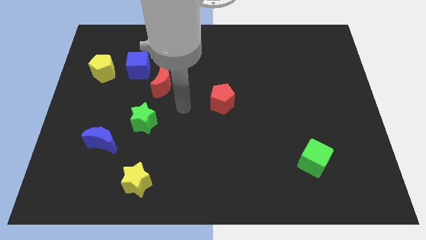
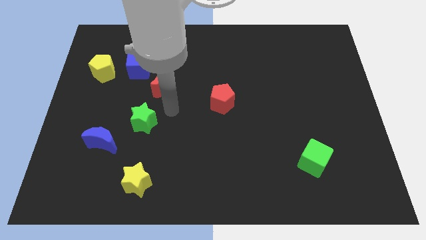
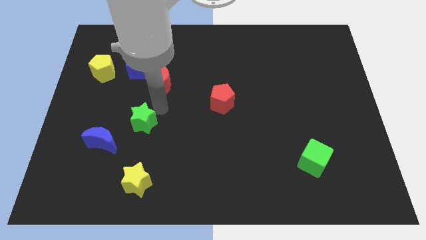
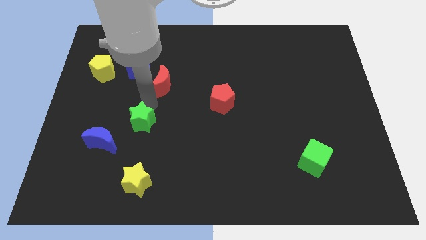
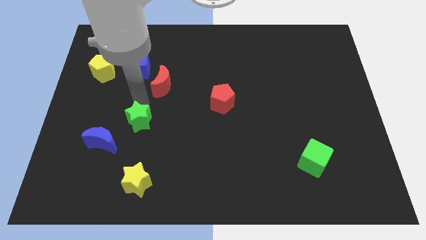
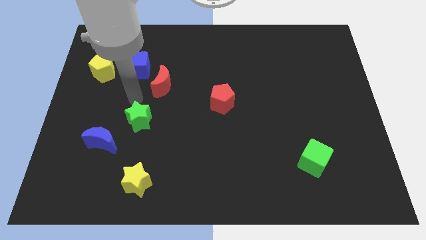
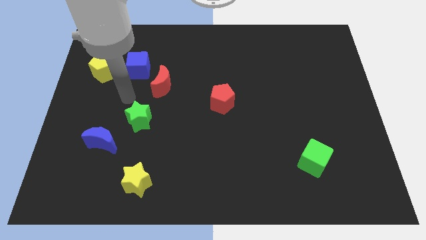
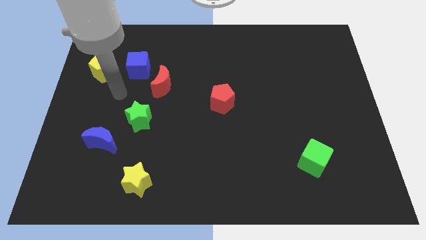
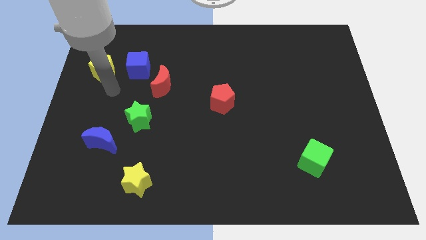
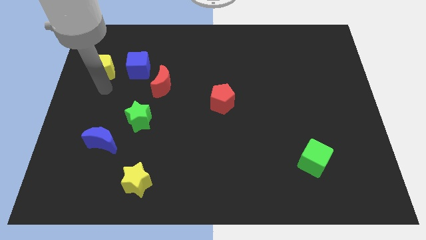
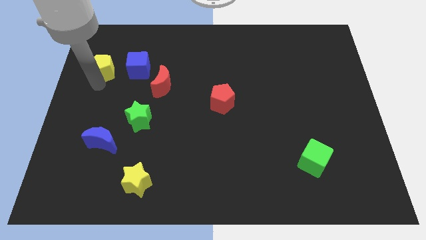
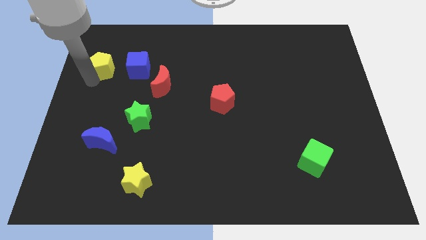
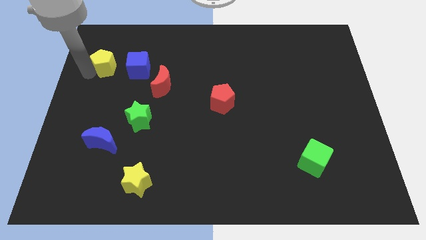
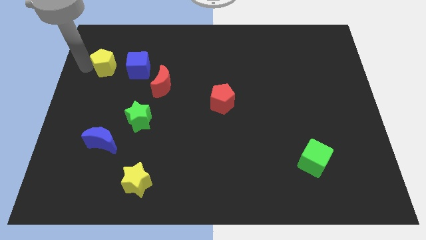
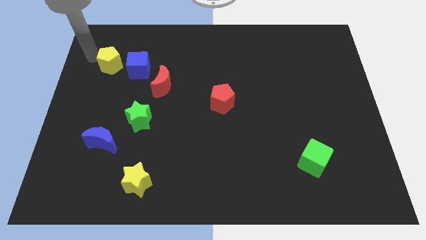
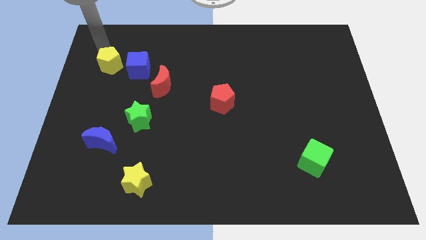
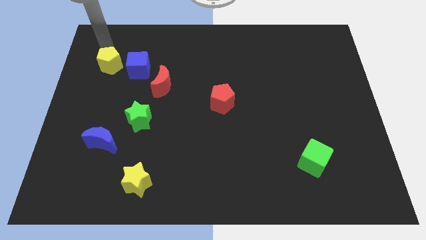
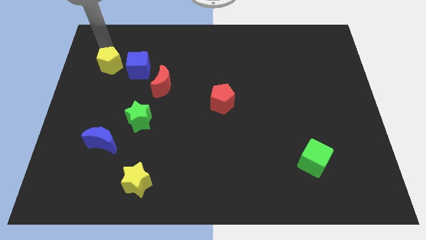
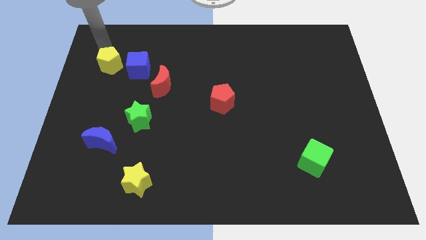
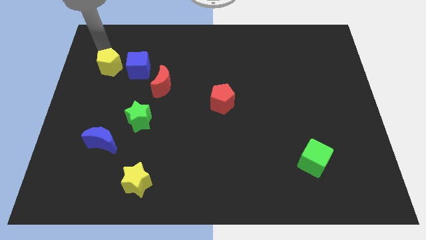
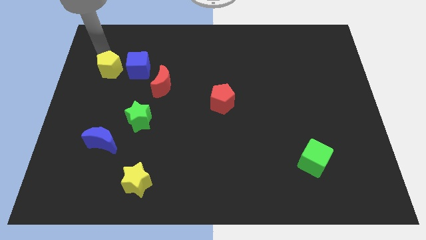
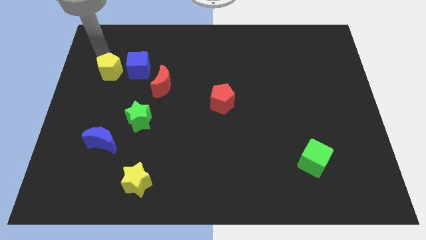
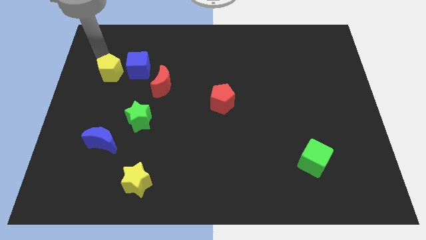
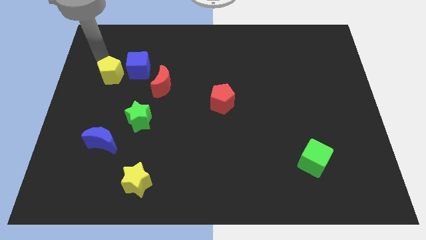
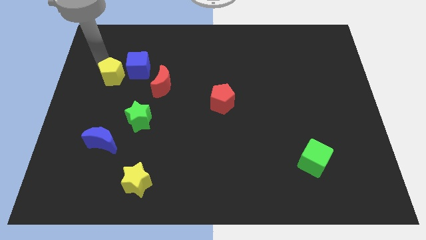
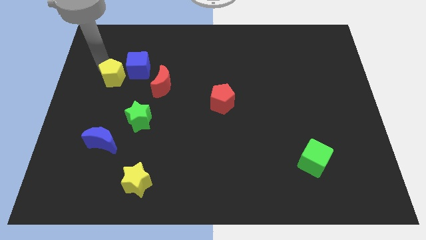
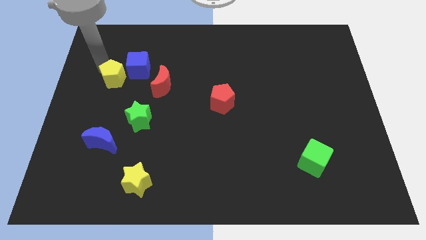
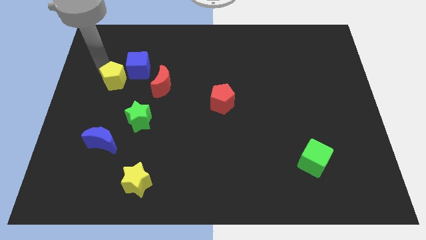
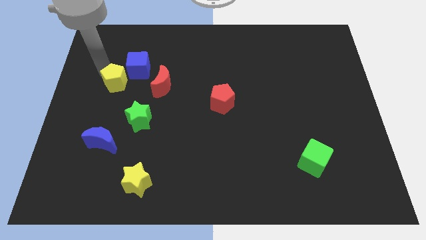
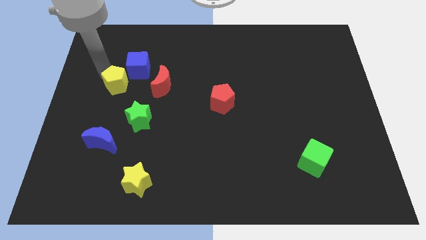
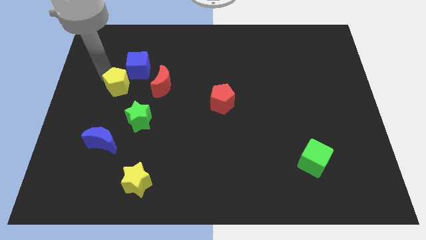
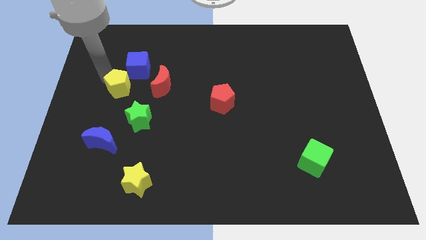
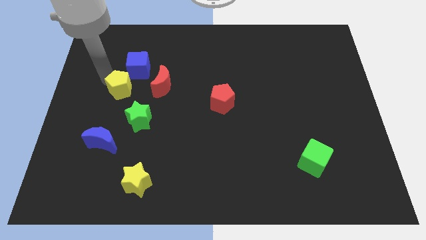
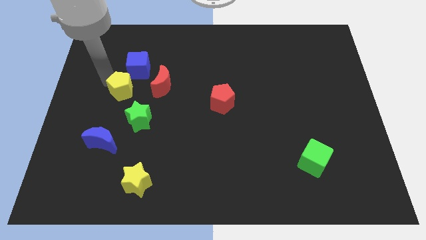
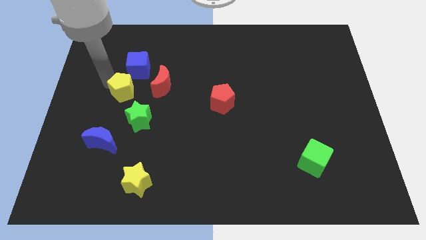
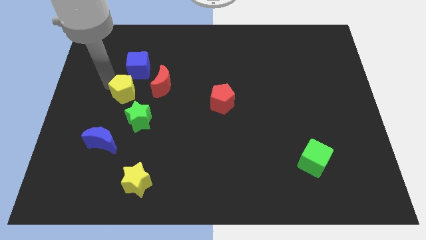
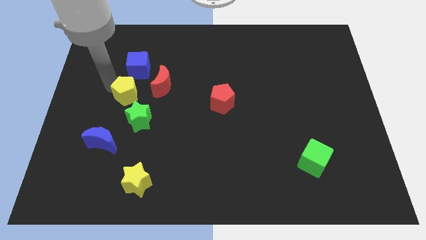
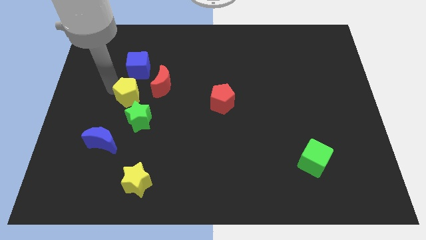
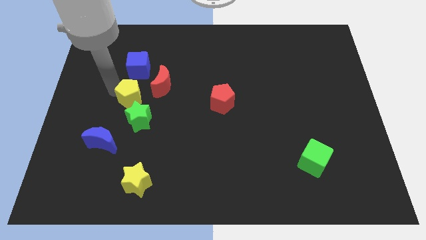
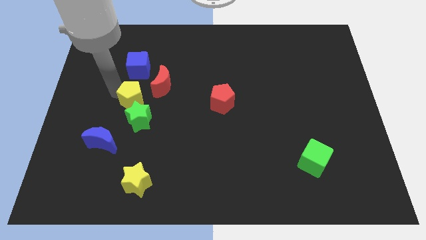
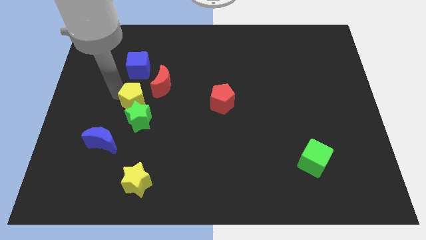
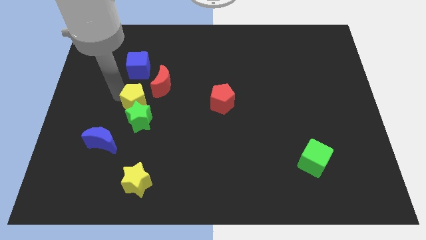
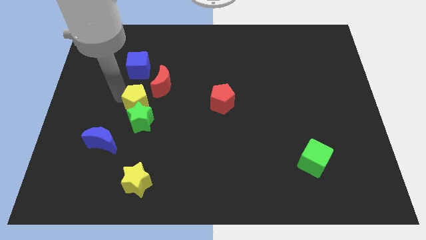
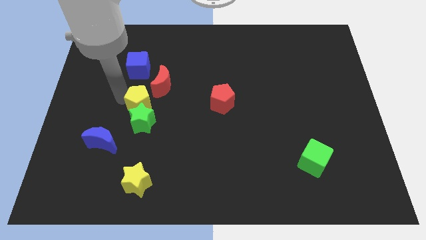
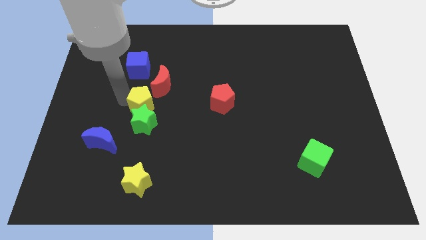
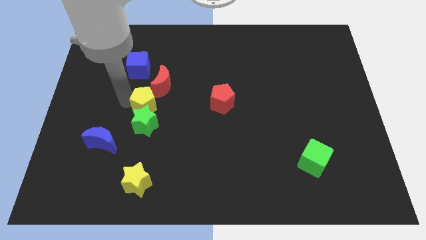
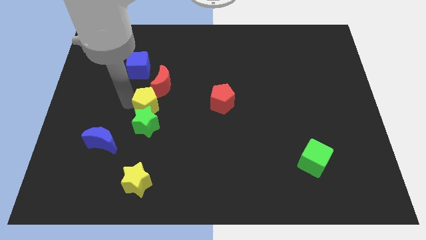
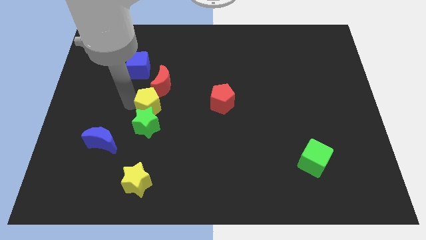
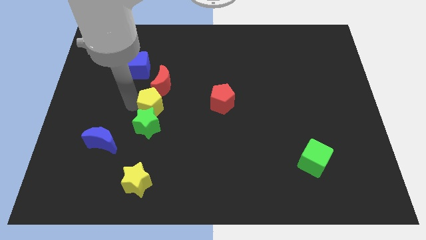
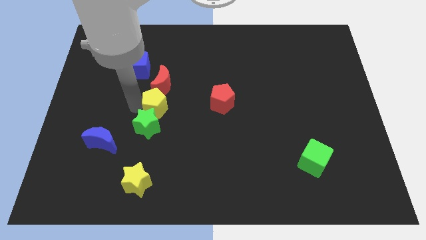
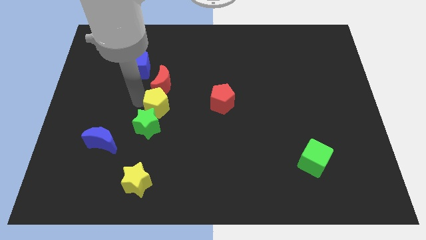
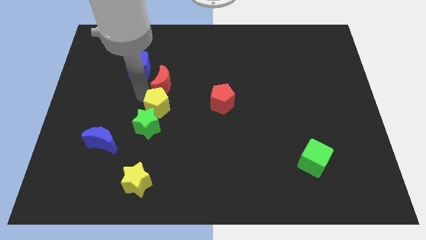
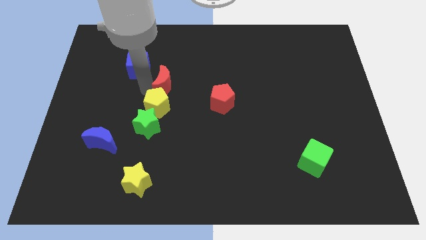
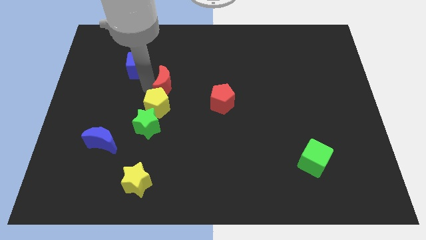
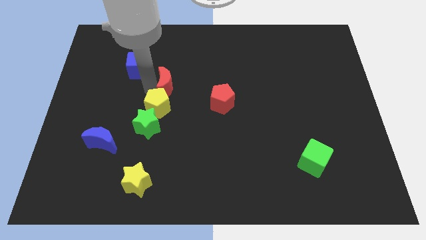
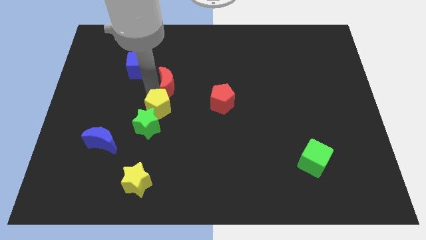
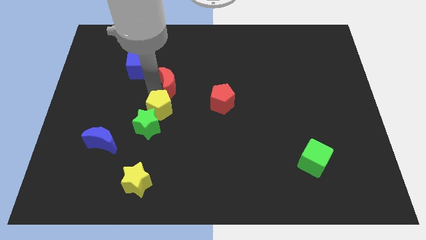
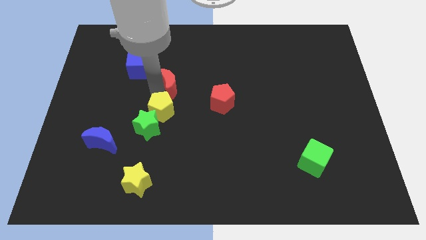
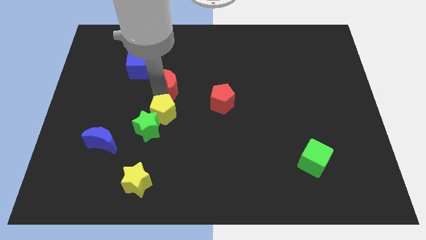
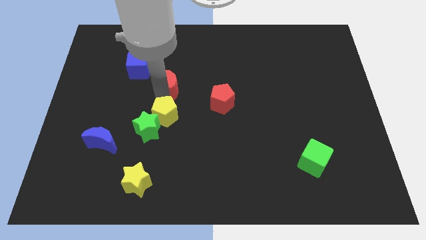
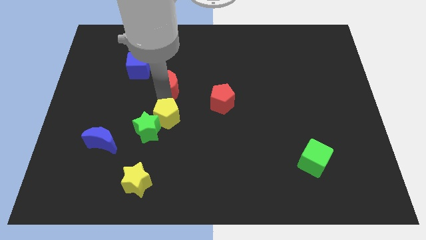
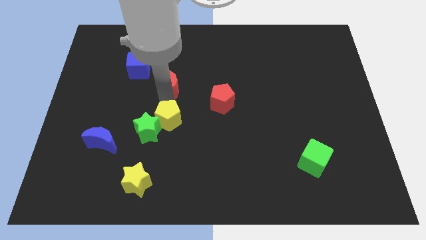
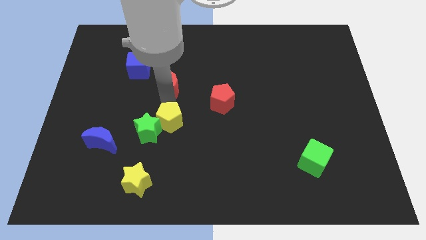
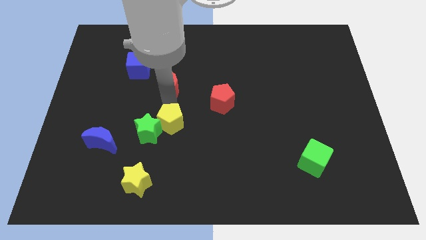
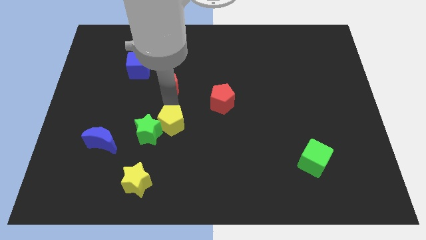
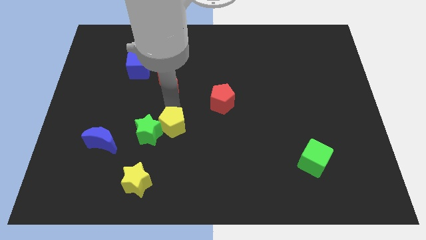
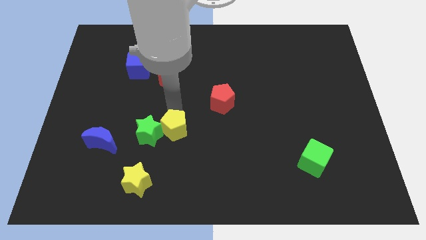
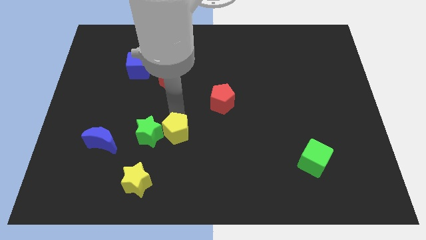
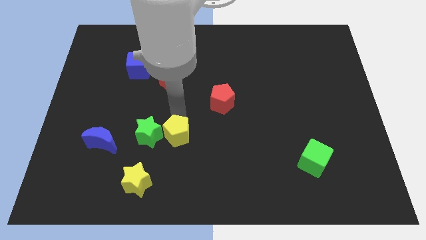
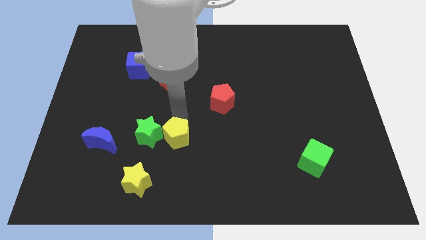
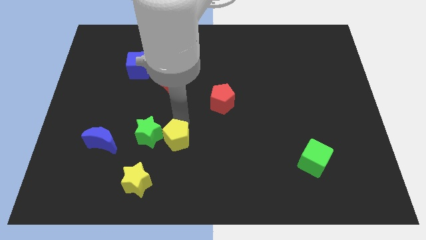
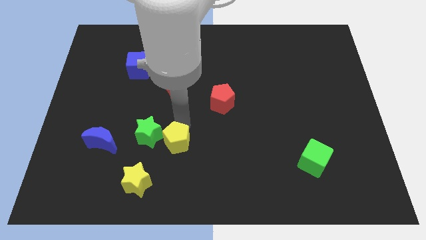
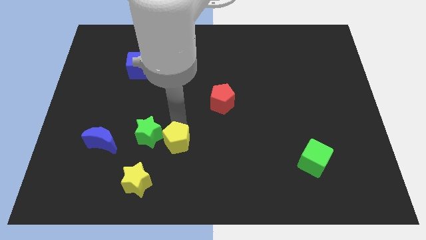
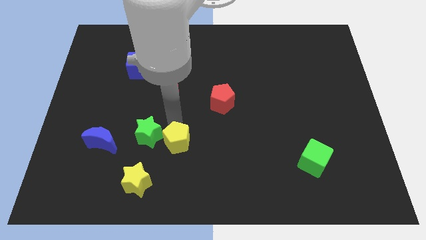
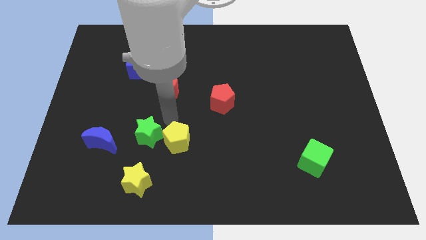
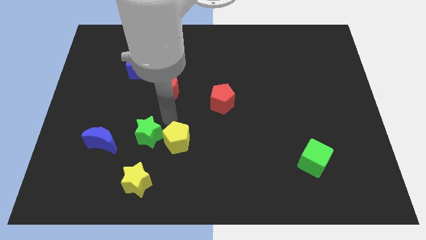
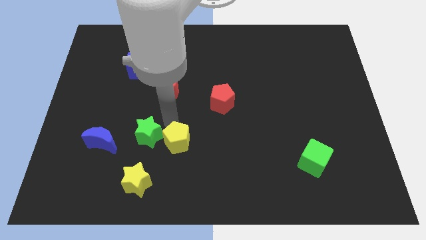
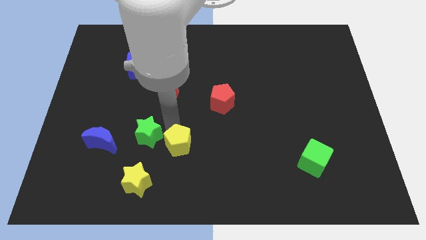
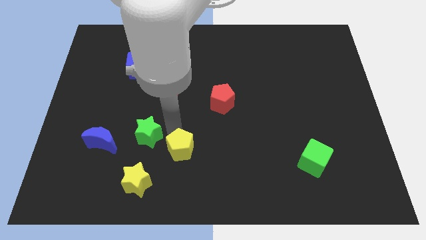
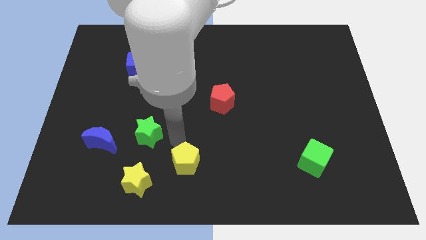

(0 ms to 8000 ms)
push the yellow pentagon to the bottom
